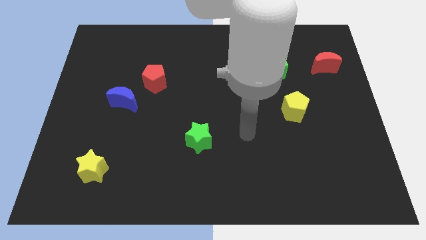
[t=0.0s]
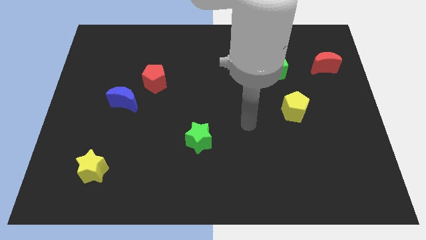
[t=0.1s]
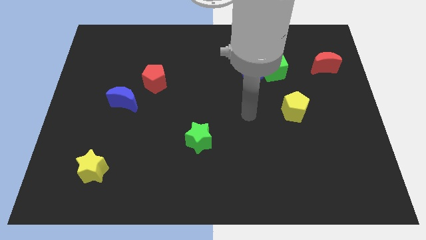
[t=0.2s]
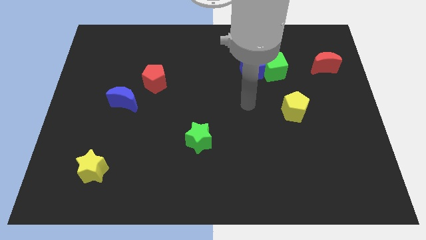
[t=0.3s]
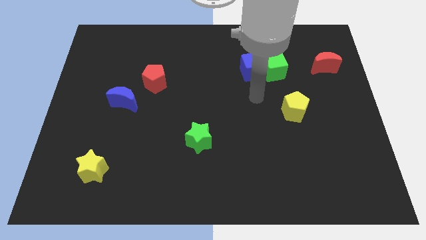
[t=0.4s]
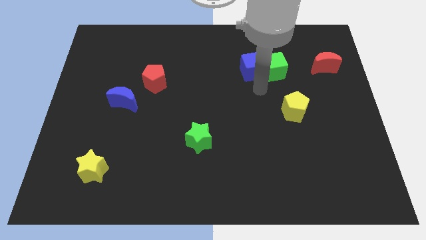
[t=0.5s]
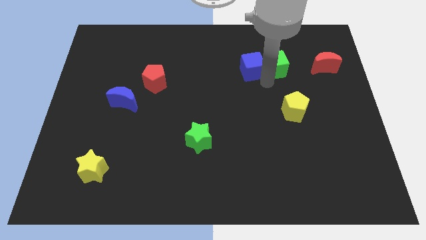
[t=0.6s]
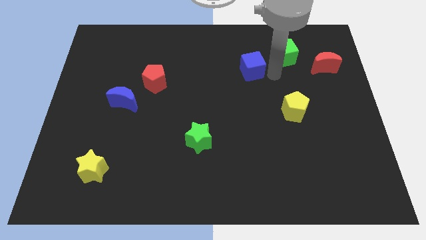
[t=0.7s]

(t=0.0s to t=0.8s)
pull the blue cube apart from the green cube

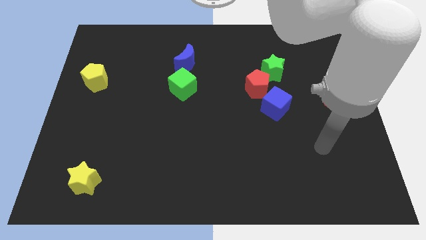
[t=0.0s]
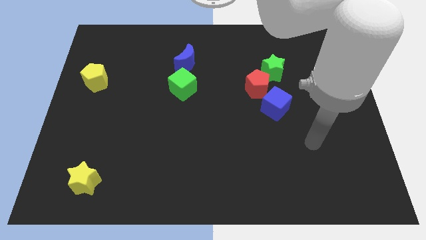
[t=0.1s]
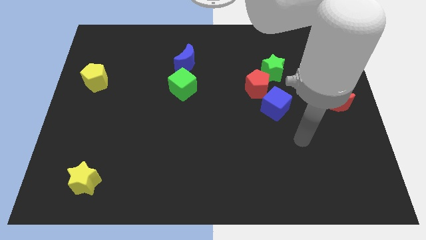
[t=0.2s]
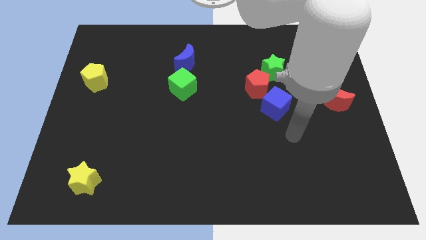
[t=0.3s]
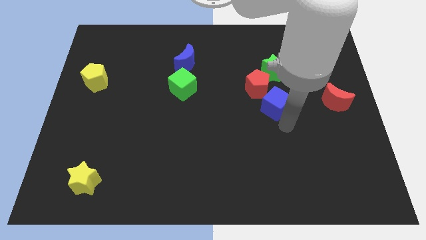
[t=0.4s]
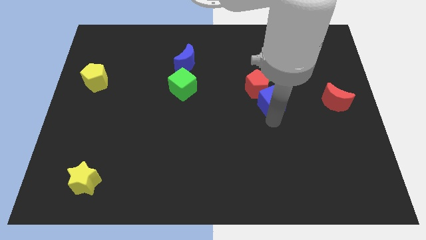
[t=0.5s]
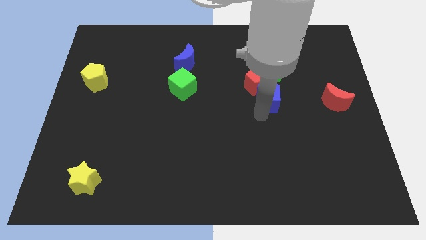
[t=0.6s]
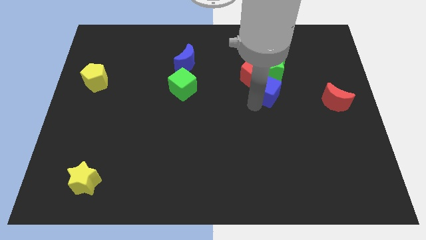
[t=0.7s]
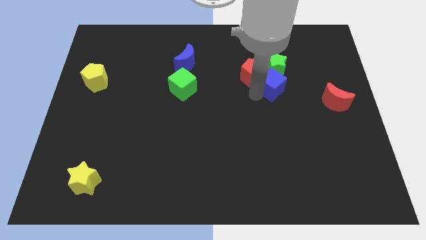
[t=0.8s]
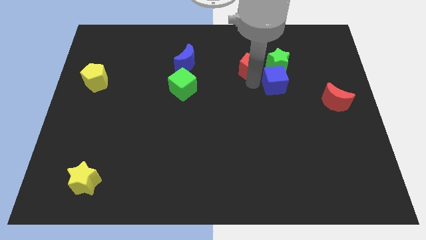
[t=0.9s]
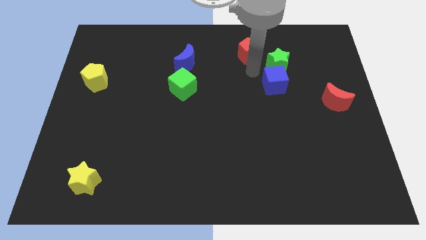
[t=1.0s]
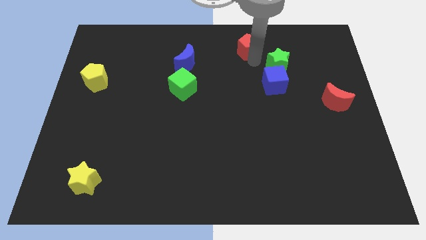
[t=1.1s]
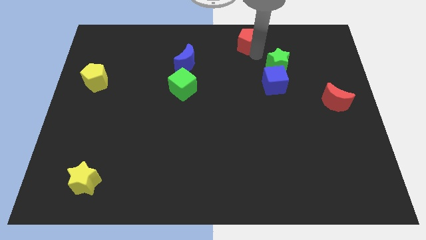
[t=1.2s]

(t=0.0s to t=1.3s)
pull the green star apart from the red pentagon

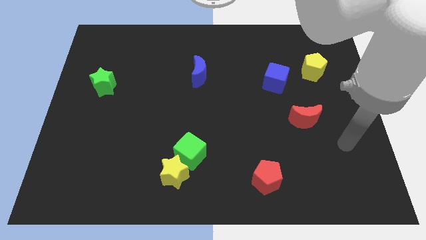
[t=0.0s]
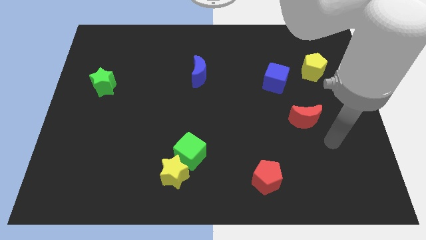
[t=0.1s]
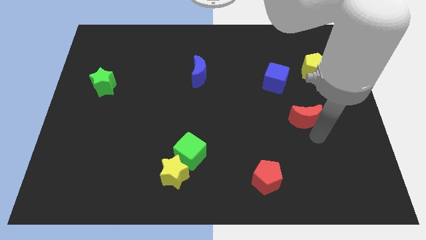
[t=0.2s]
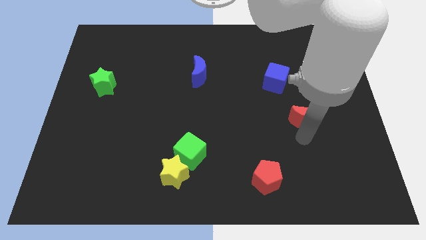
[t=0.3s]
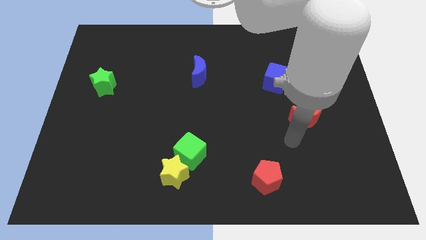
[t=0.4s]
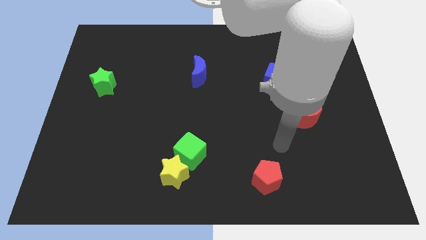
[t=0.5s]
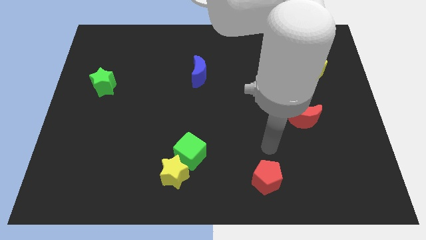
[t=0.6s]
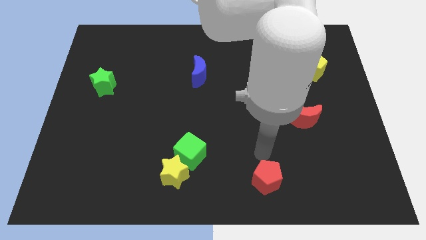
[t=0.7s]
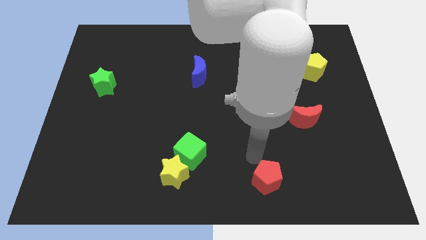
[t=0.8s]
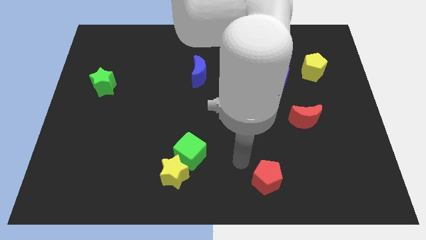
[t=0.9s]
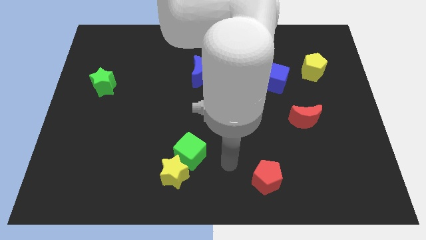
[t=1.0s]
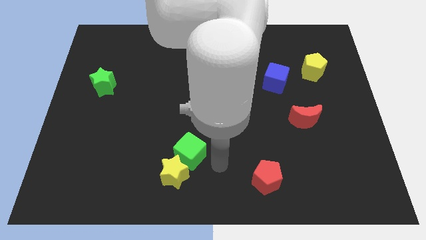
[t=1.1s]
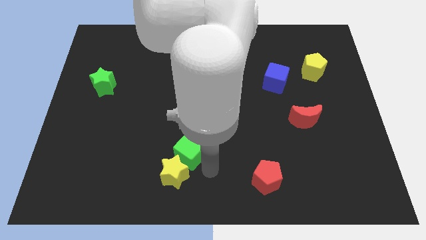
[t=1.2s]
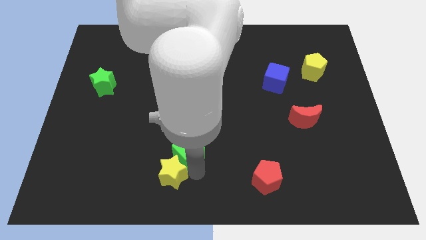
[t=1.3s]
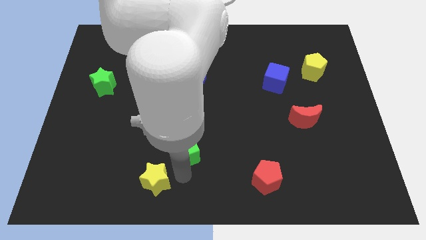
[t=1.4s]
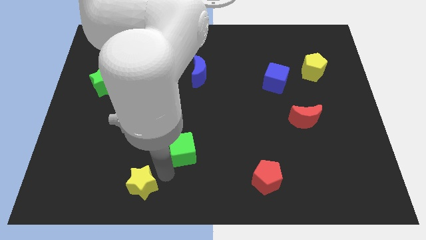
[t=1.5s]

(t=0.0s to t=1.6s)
separate the green cube from the yellow star

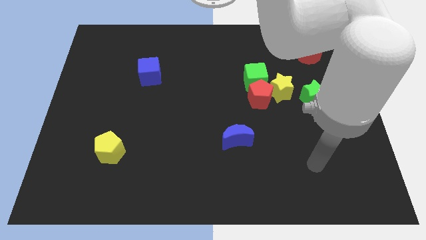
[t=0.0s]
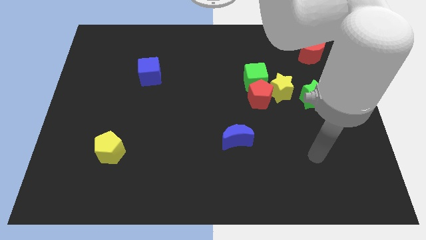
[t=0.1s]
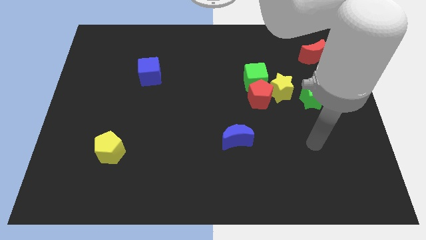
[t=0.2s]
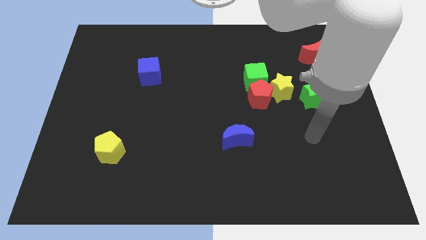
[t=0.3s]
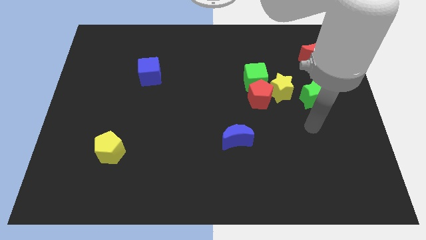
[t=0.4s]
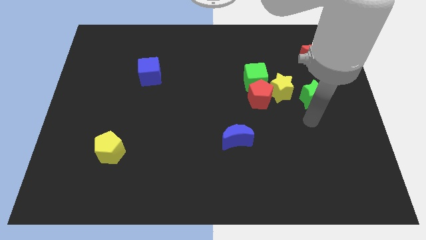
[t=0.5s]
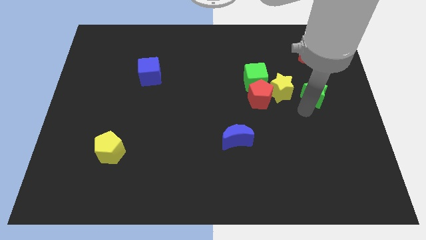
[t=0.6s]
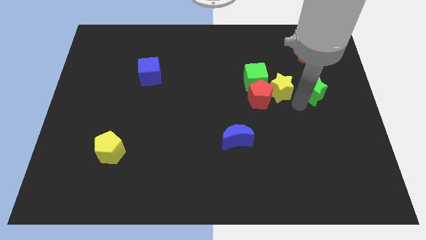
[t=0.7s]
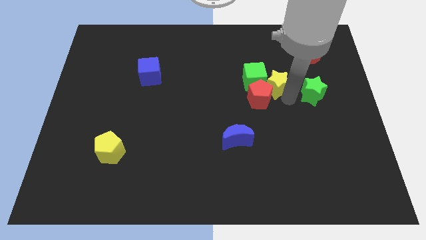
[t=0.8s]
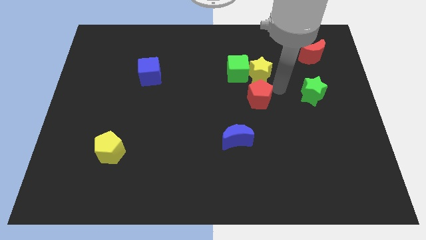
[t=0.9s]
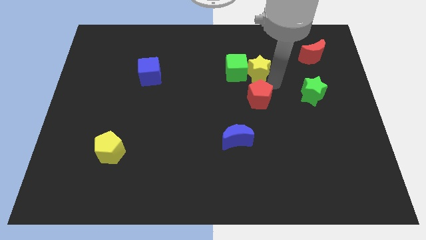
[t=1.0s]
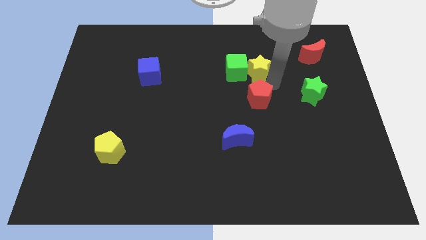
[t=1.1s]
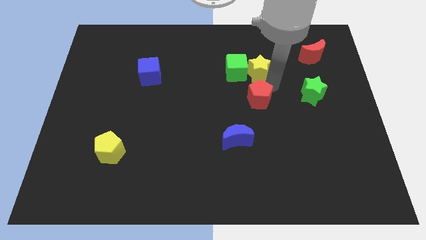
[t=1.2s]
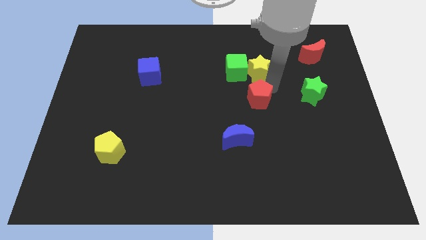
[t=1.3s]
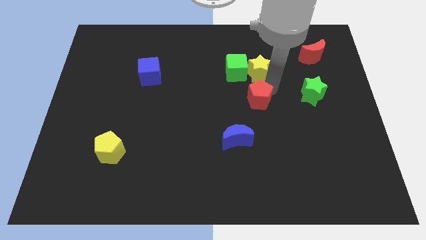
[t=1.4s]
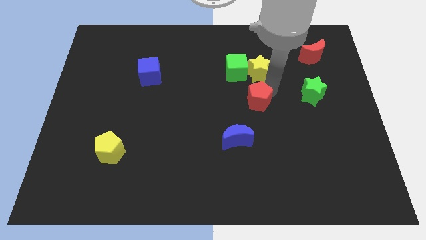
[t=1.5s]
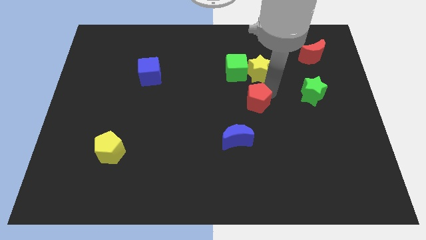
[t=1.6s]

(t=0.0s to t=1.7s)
pull the red pentagon apart from the yellow star and green cube

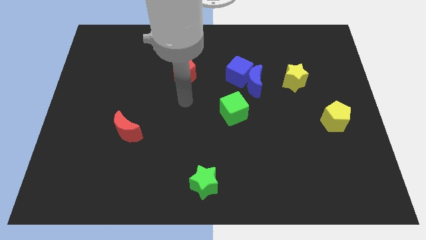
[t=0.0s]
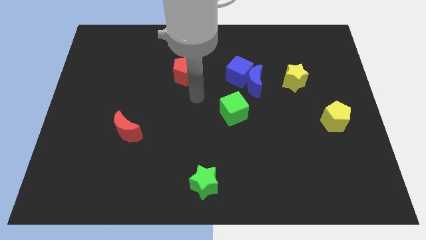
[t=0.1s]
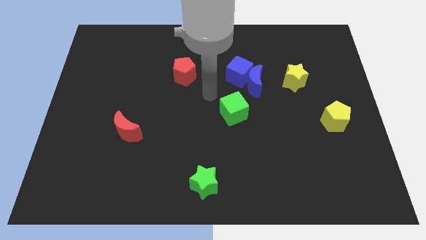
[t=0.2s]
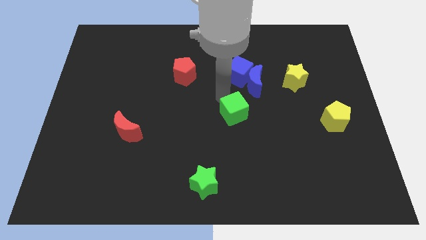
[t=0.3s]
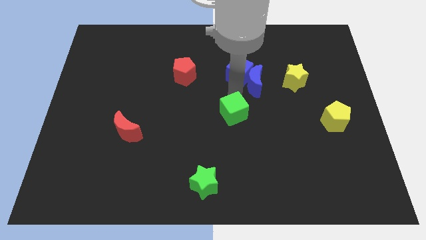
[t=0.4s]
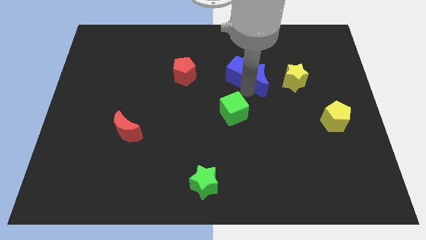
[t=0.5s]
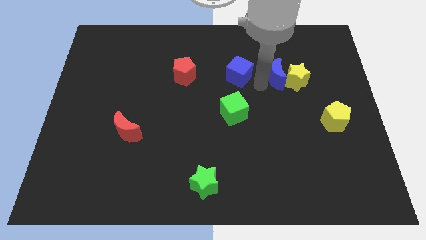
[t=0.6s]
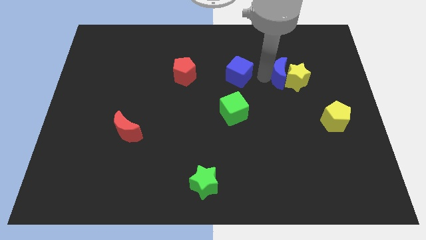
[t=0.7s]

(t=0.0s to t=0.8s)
separate the blue cube from the blue moon

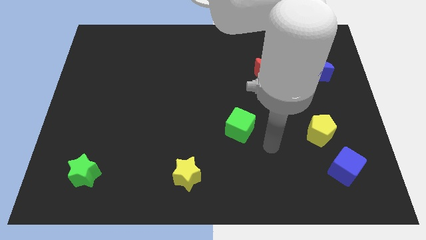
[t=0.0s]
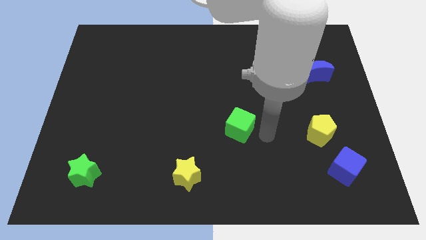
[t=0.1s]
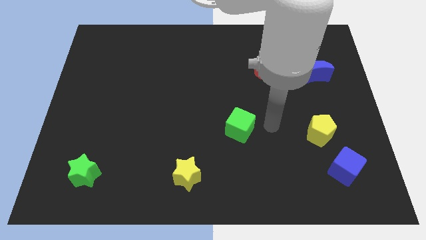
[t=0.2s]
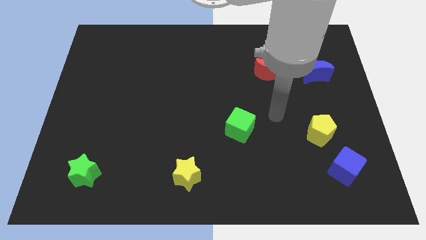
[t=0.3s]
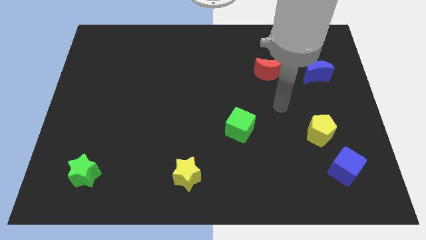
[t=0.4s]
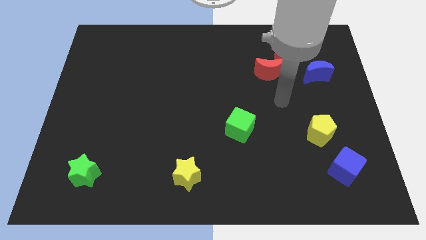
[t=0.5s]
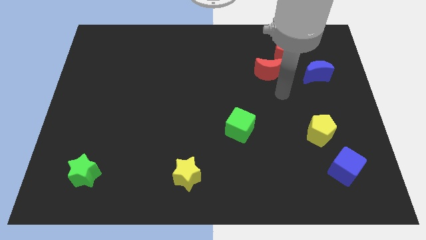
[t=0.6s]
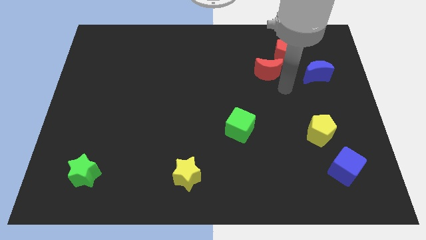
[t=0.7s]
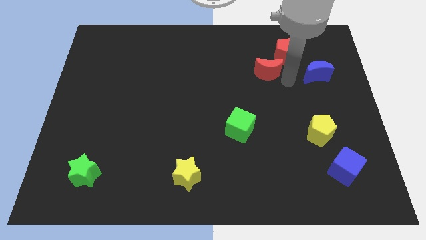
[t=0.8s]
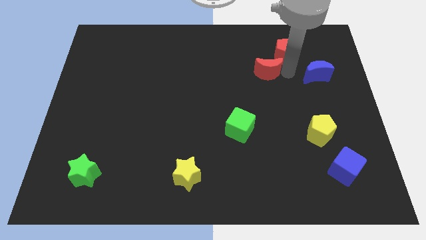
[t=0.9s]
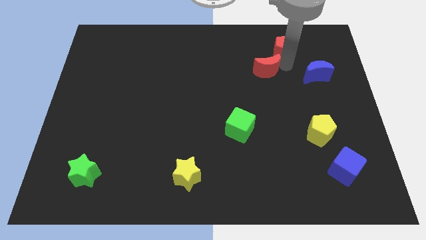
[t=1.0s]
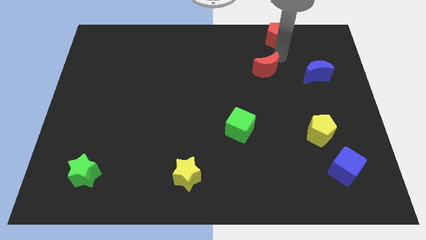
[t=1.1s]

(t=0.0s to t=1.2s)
move the red moon away from the red pentagon

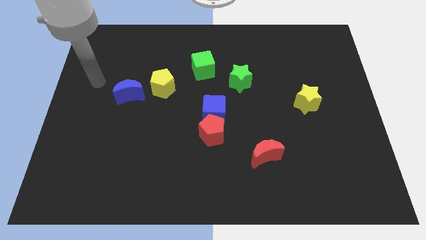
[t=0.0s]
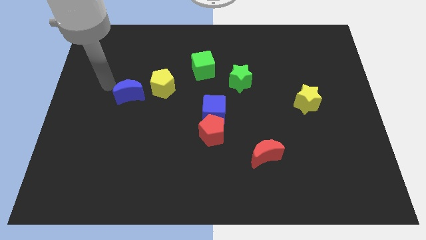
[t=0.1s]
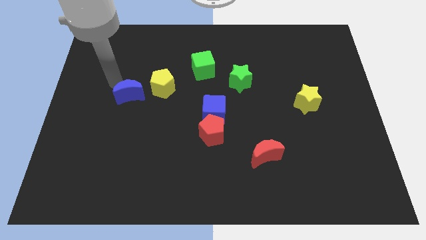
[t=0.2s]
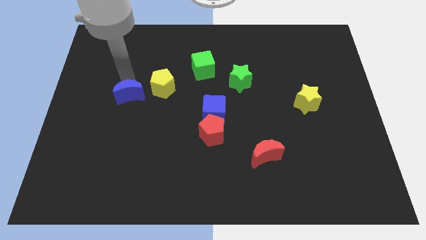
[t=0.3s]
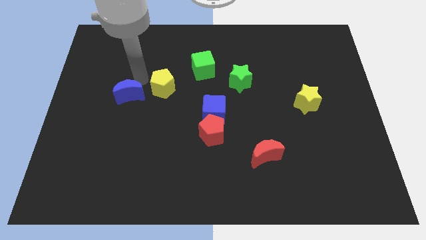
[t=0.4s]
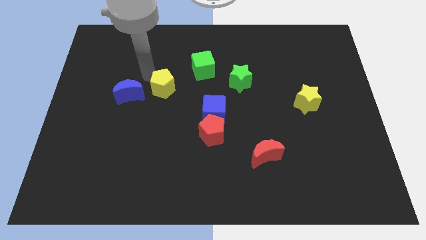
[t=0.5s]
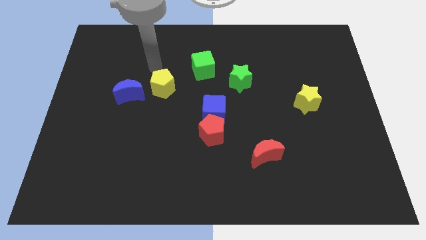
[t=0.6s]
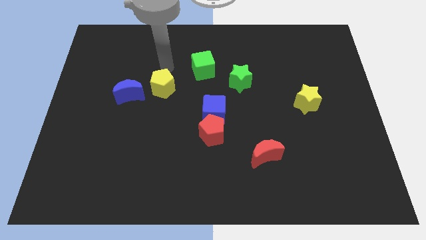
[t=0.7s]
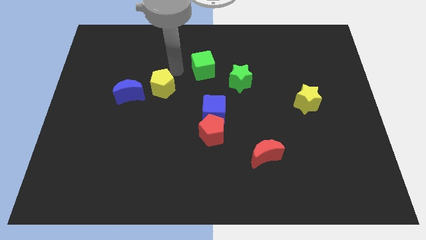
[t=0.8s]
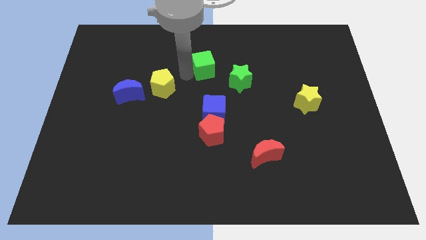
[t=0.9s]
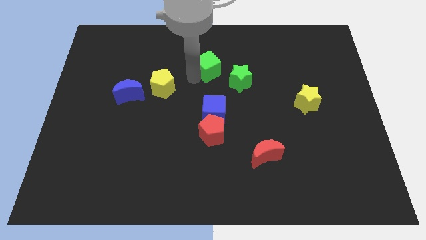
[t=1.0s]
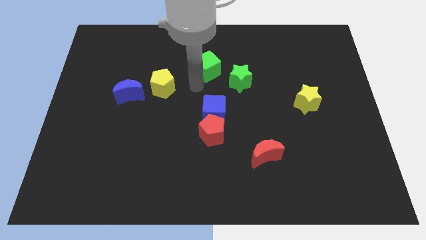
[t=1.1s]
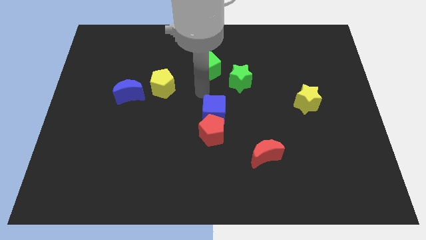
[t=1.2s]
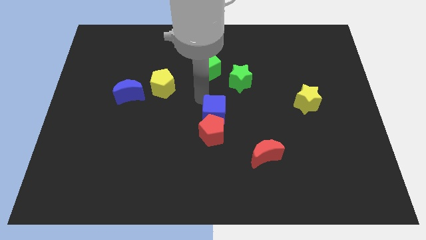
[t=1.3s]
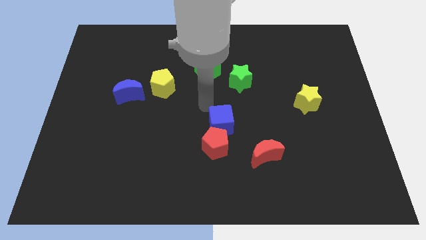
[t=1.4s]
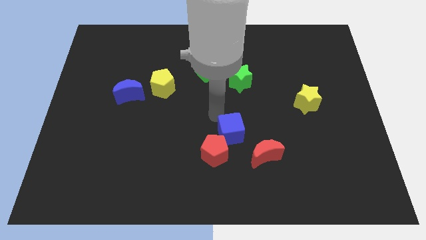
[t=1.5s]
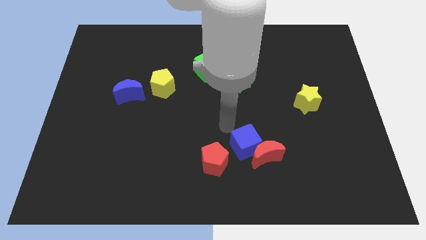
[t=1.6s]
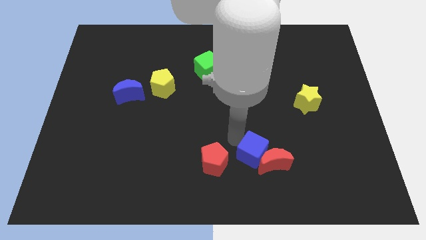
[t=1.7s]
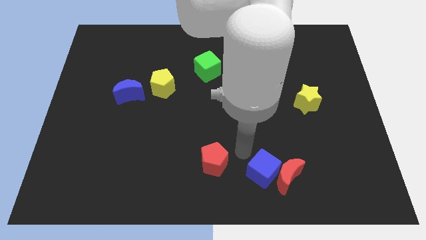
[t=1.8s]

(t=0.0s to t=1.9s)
move the red pentagon away from the blue cube

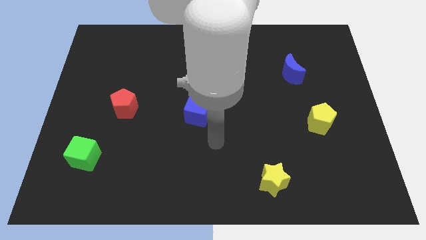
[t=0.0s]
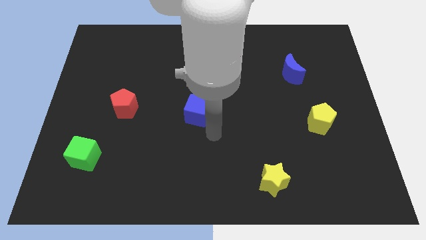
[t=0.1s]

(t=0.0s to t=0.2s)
pull the red moon apart from the green star
